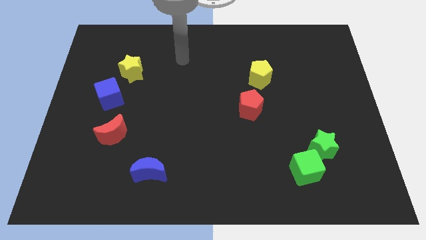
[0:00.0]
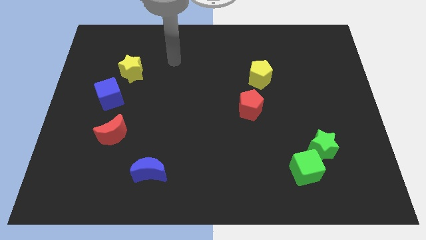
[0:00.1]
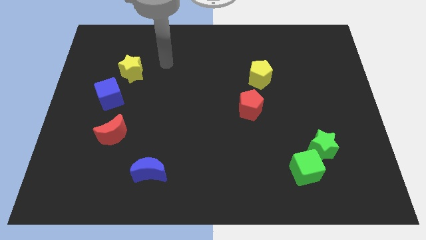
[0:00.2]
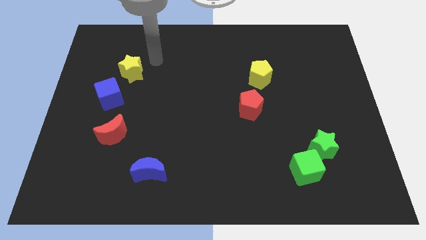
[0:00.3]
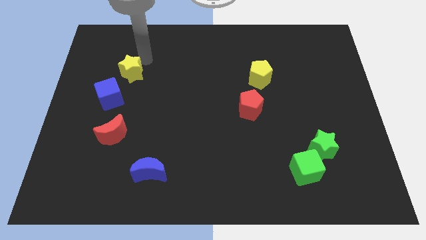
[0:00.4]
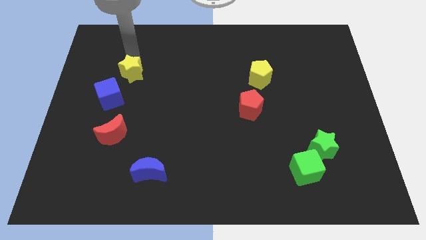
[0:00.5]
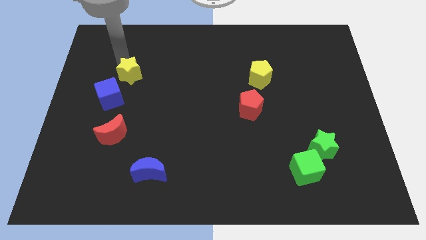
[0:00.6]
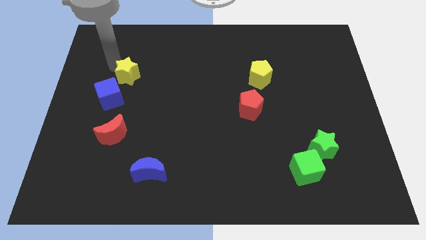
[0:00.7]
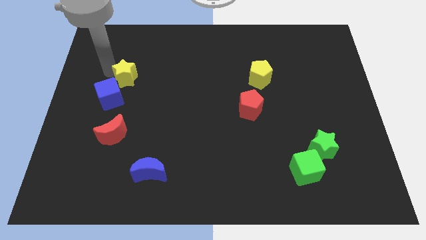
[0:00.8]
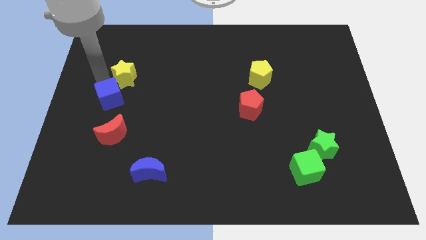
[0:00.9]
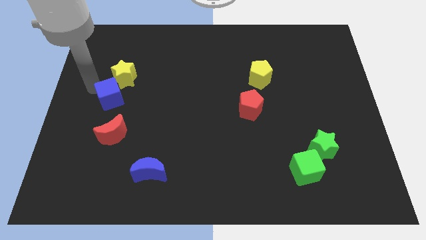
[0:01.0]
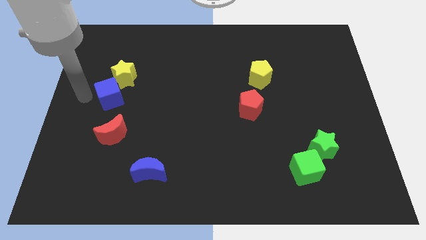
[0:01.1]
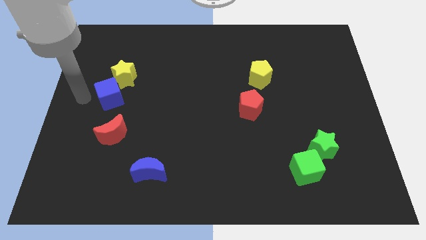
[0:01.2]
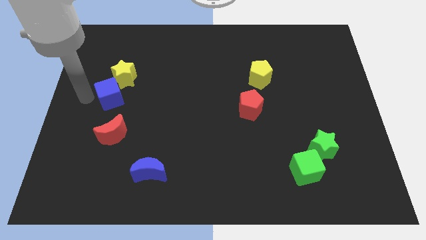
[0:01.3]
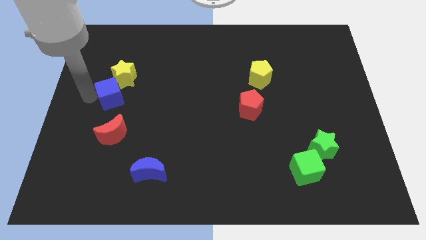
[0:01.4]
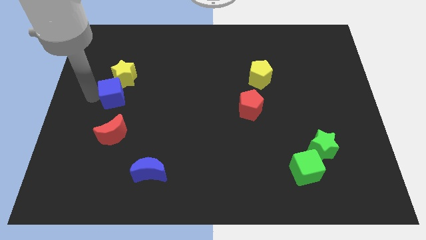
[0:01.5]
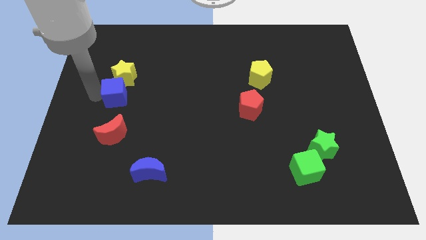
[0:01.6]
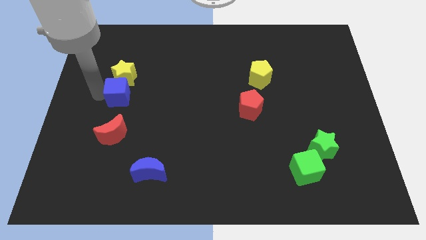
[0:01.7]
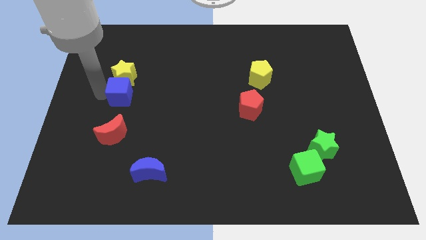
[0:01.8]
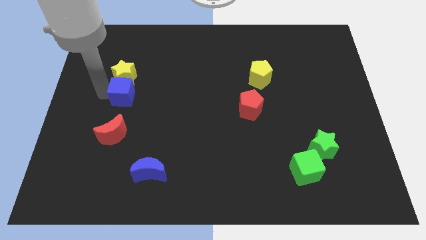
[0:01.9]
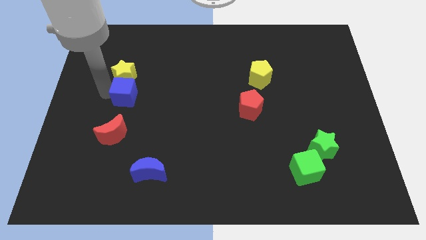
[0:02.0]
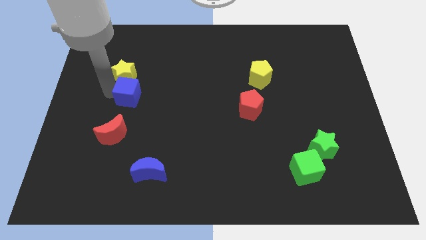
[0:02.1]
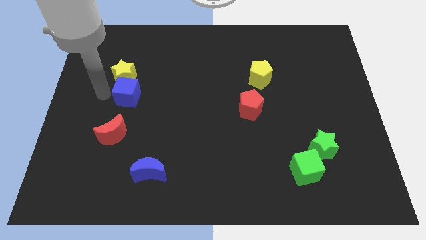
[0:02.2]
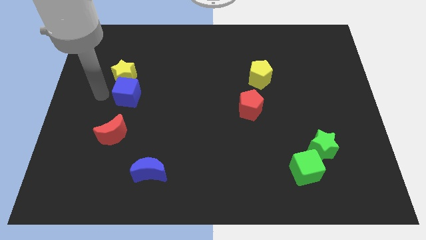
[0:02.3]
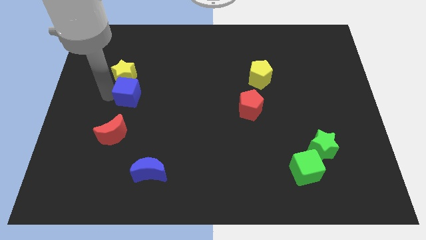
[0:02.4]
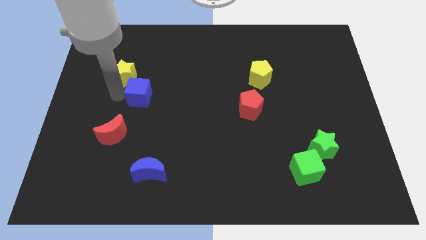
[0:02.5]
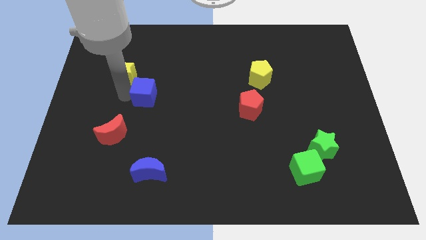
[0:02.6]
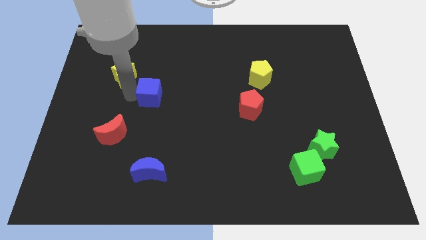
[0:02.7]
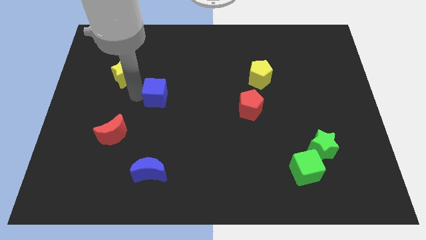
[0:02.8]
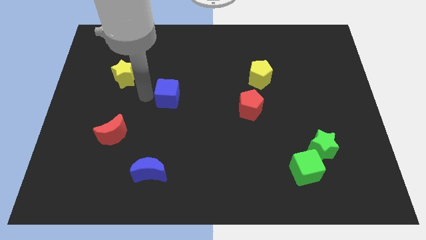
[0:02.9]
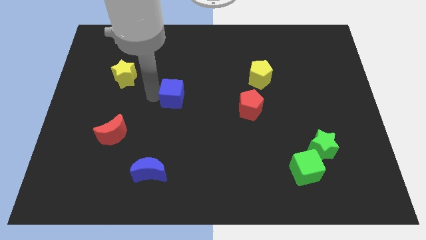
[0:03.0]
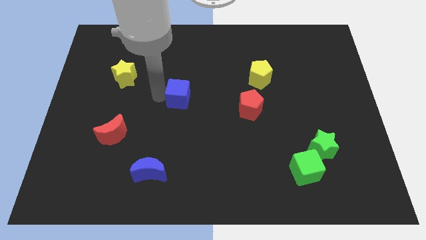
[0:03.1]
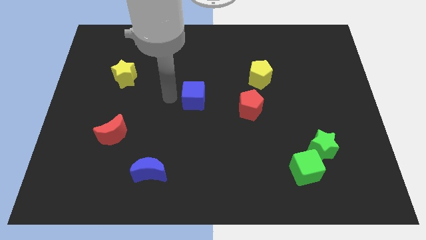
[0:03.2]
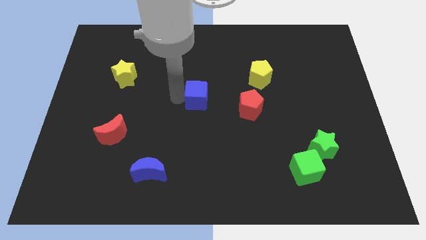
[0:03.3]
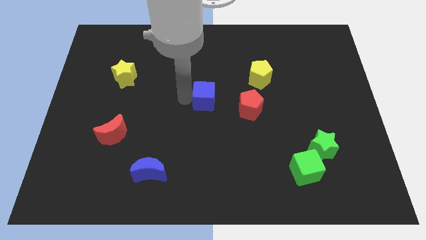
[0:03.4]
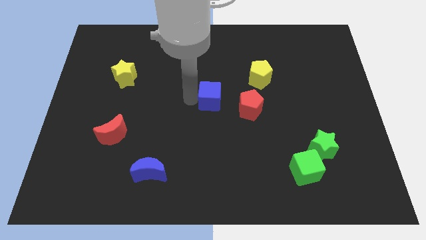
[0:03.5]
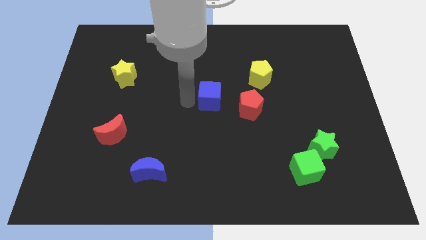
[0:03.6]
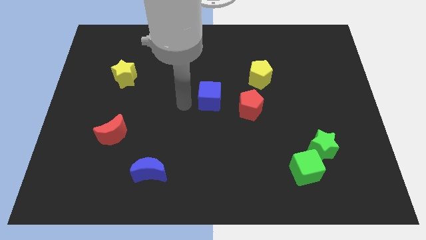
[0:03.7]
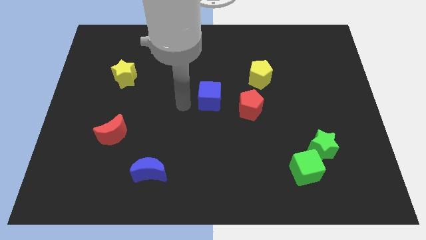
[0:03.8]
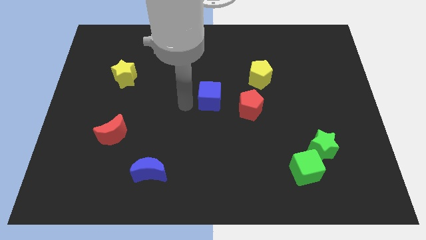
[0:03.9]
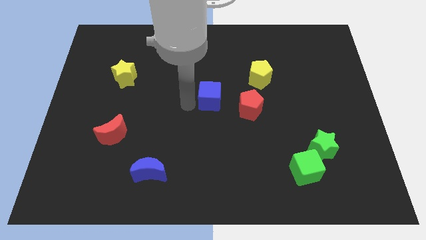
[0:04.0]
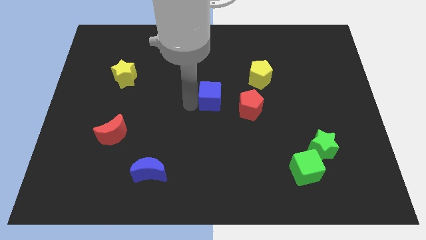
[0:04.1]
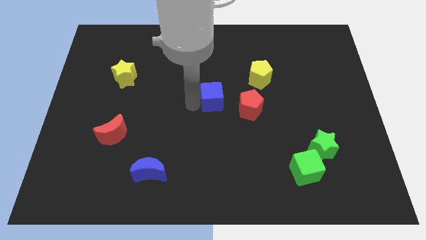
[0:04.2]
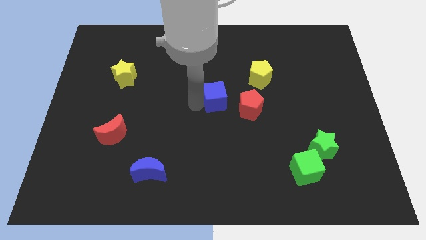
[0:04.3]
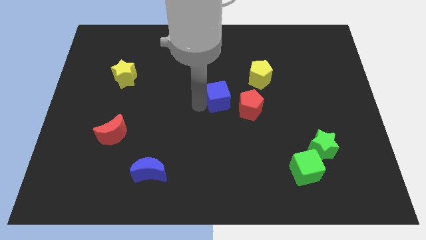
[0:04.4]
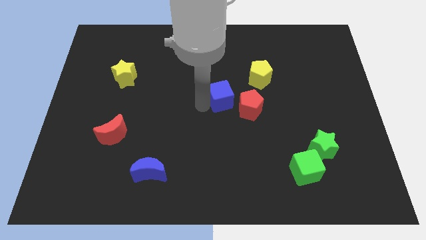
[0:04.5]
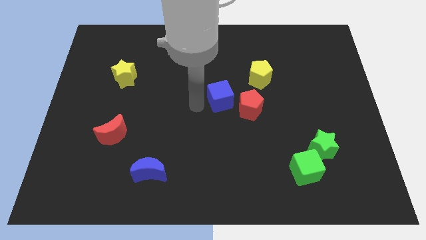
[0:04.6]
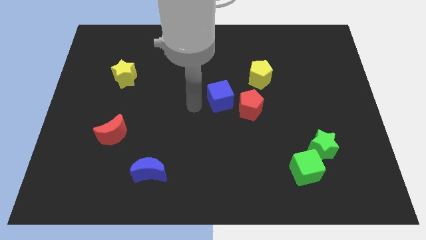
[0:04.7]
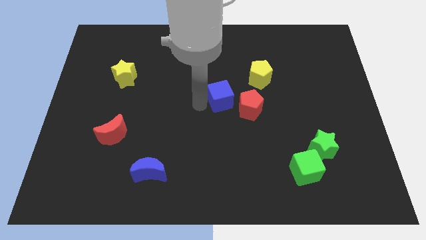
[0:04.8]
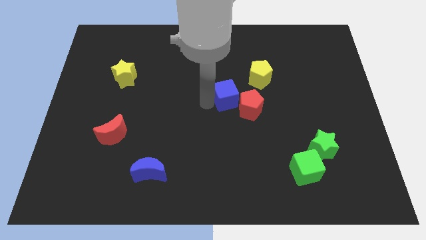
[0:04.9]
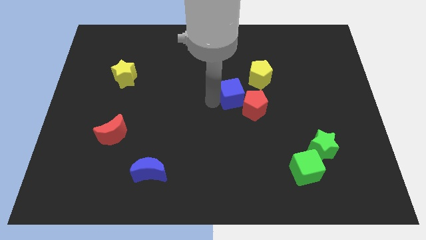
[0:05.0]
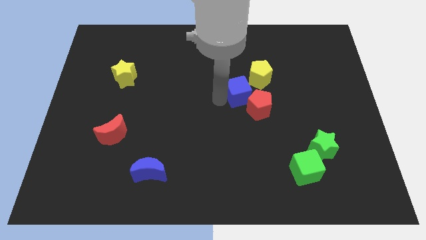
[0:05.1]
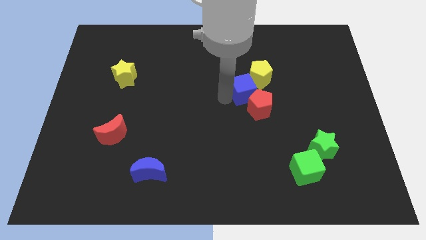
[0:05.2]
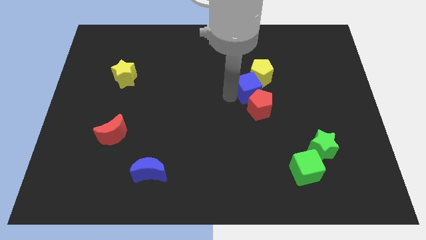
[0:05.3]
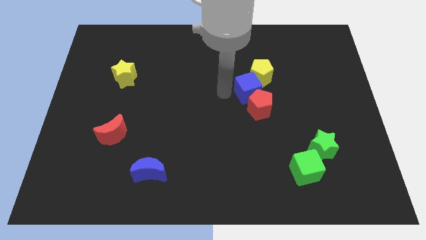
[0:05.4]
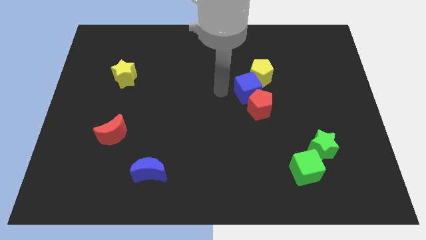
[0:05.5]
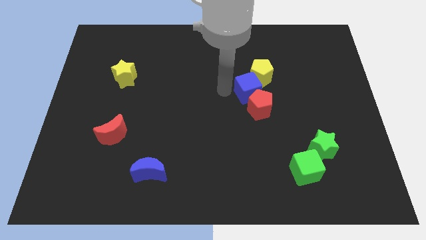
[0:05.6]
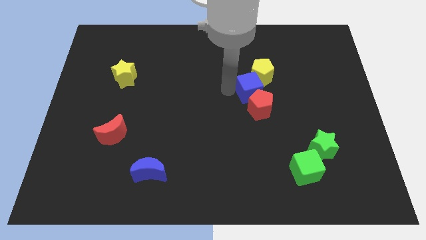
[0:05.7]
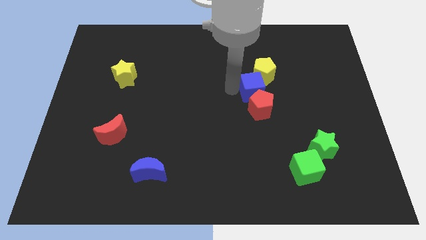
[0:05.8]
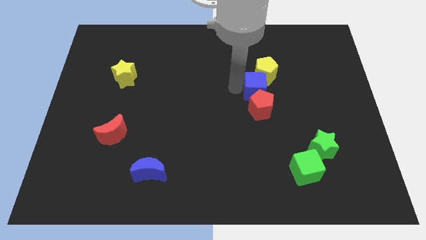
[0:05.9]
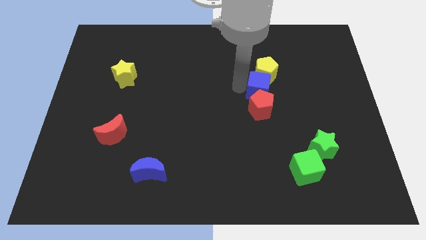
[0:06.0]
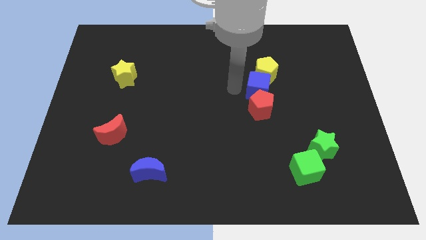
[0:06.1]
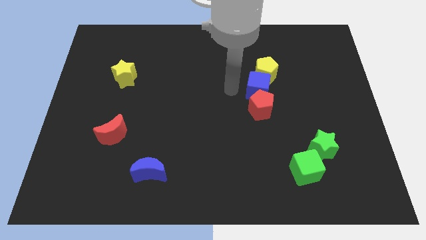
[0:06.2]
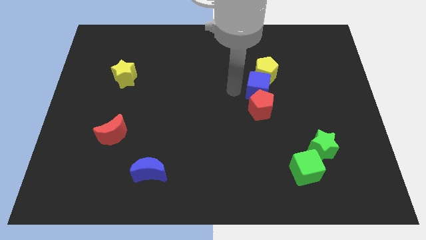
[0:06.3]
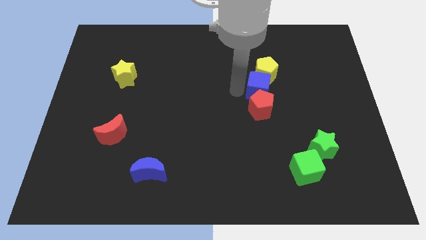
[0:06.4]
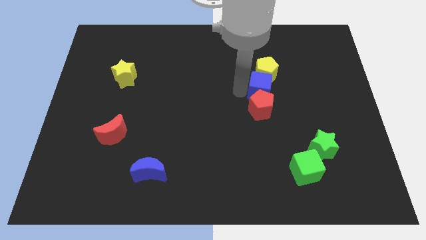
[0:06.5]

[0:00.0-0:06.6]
slide the blue cube diagonally down and to the right of the yellow pentagon
